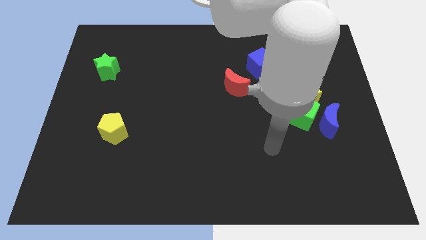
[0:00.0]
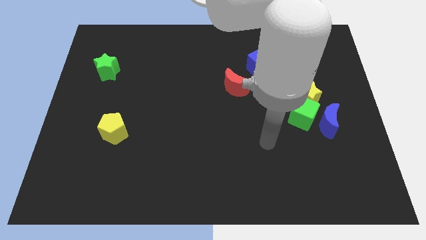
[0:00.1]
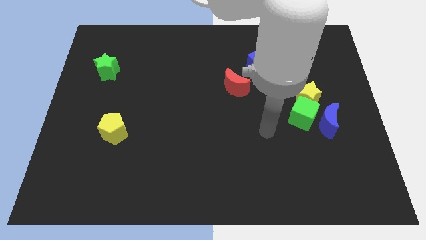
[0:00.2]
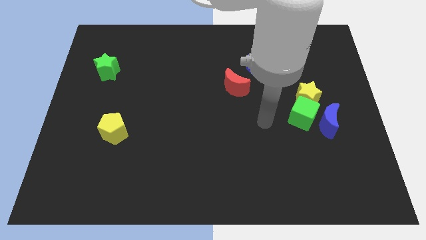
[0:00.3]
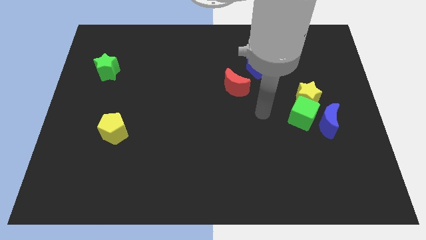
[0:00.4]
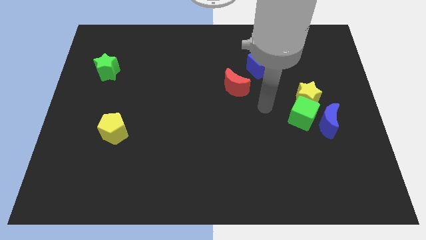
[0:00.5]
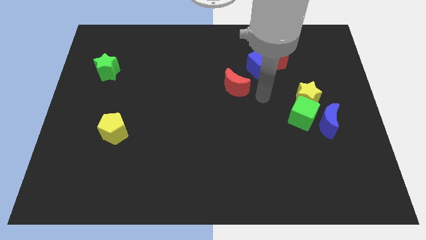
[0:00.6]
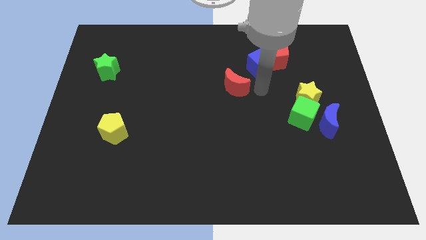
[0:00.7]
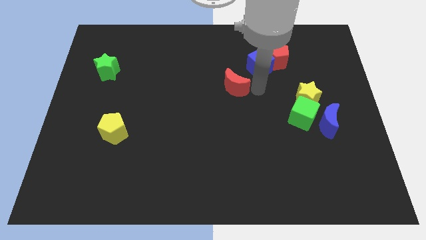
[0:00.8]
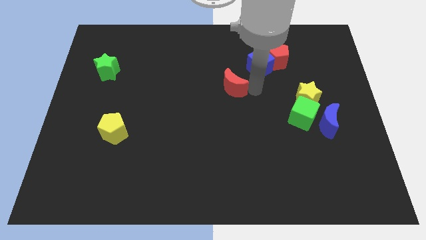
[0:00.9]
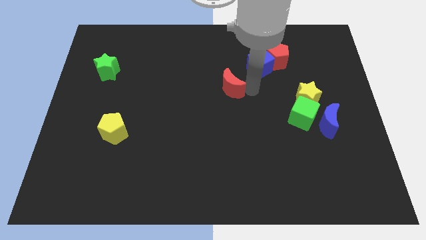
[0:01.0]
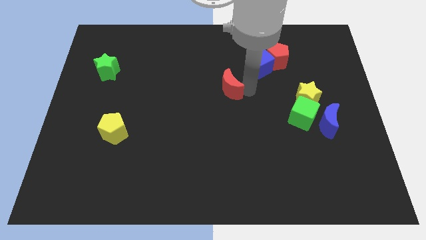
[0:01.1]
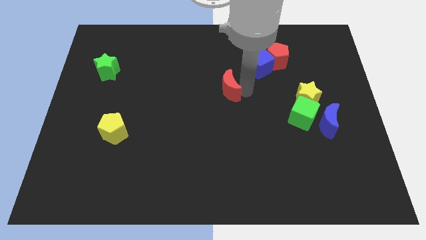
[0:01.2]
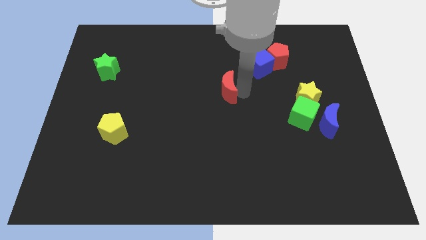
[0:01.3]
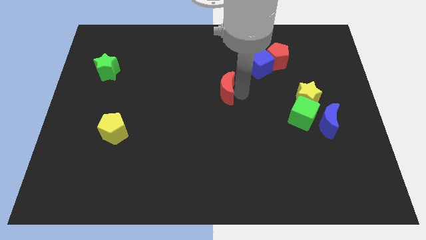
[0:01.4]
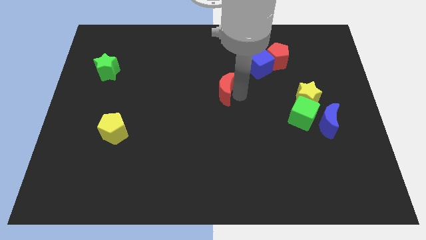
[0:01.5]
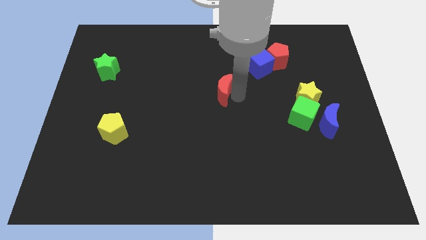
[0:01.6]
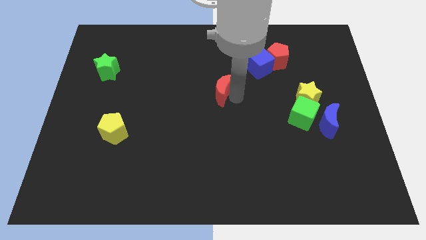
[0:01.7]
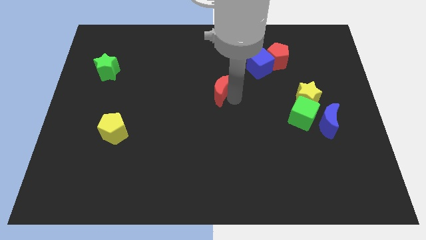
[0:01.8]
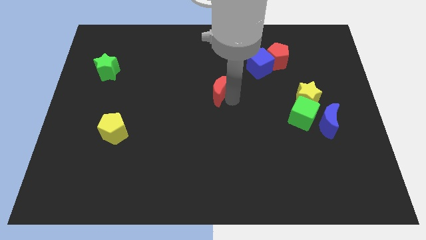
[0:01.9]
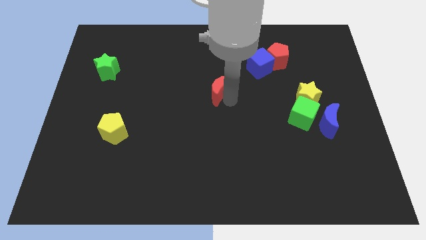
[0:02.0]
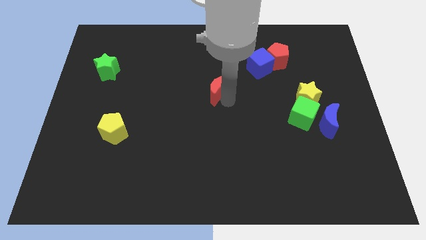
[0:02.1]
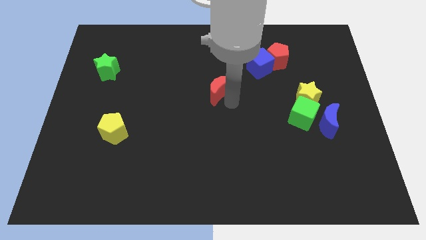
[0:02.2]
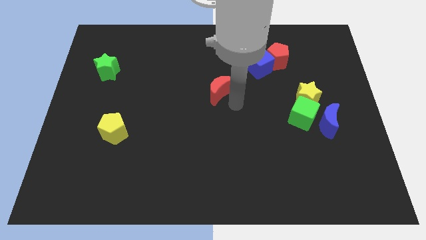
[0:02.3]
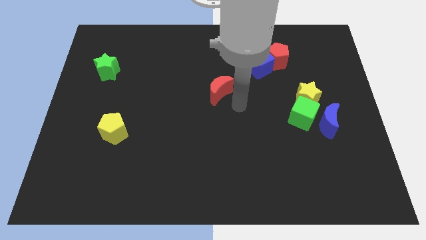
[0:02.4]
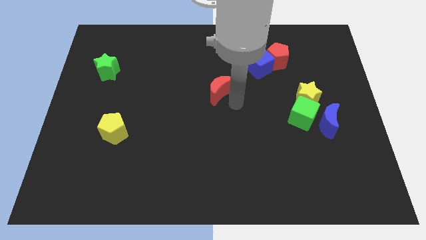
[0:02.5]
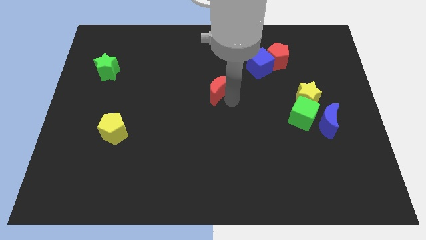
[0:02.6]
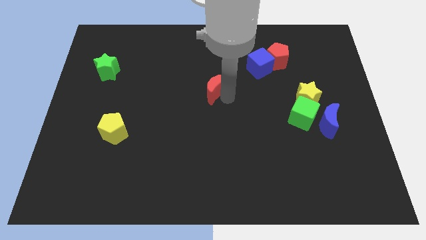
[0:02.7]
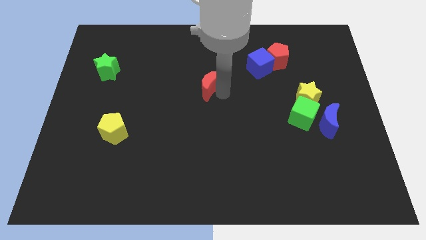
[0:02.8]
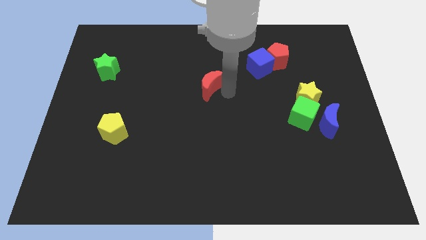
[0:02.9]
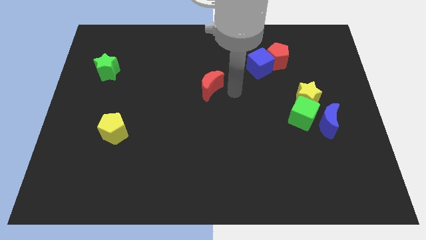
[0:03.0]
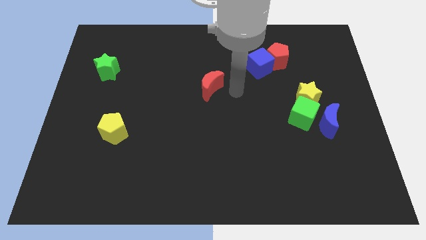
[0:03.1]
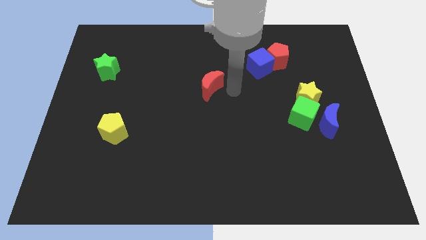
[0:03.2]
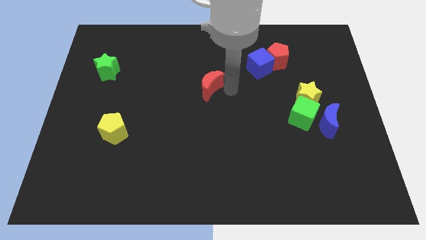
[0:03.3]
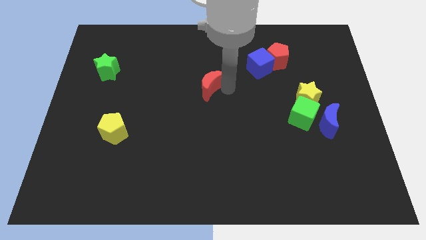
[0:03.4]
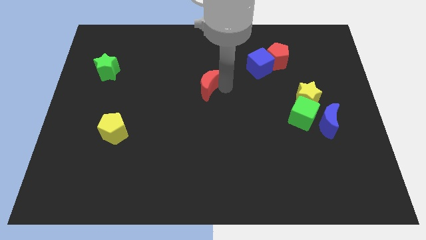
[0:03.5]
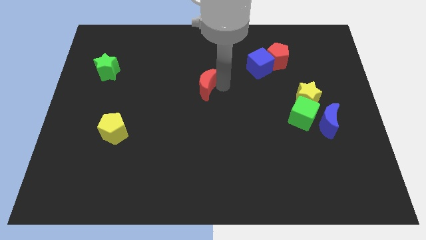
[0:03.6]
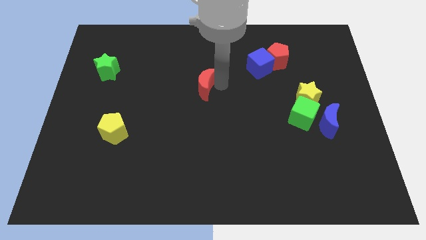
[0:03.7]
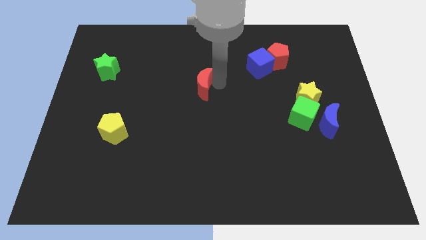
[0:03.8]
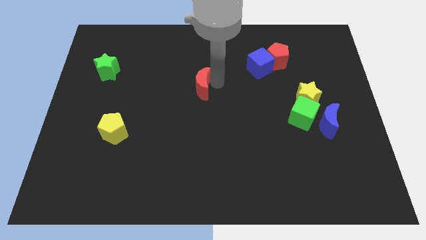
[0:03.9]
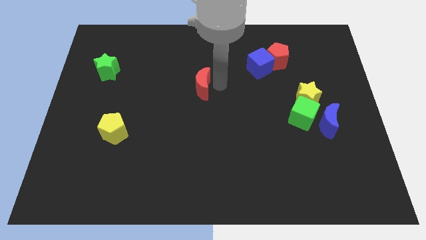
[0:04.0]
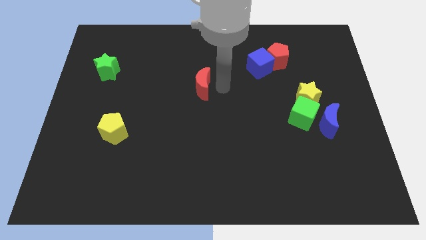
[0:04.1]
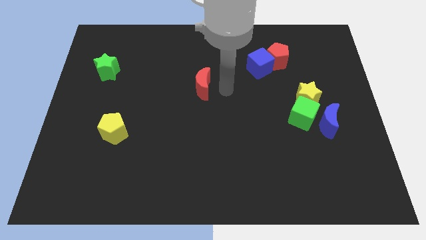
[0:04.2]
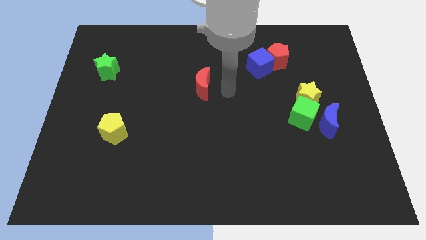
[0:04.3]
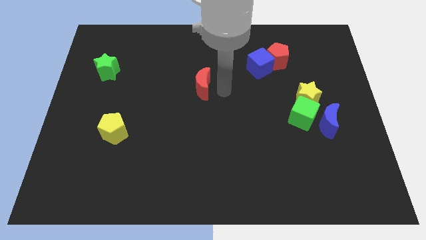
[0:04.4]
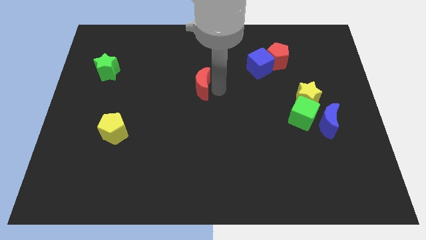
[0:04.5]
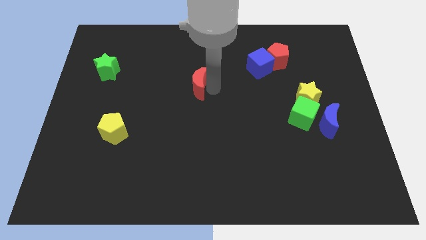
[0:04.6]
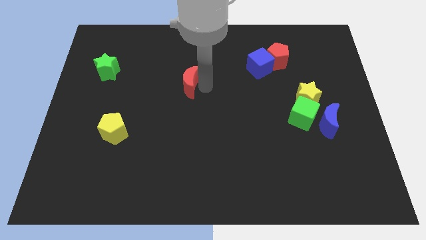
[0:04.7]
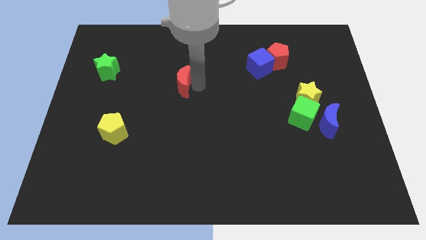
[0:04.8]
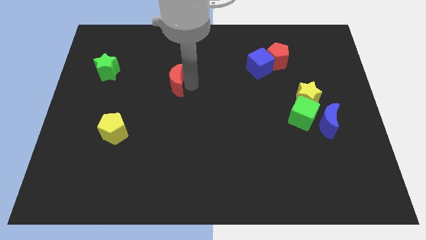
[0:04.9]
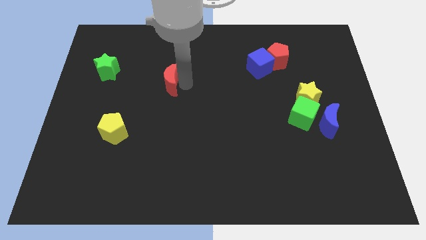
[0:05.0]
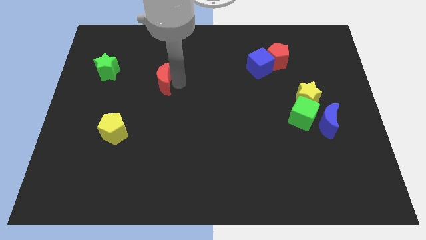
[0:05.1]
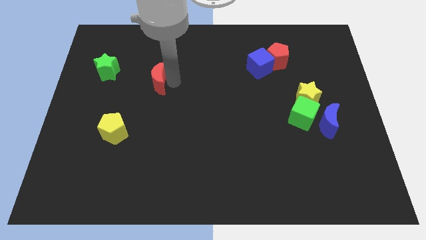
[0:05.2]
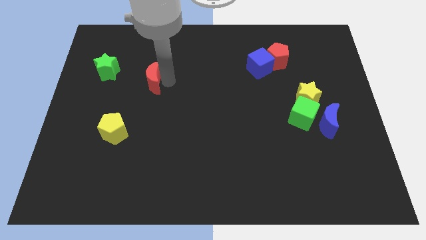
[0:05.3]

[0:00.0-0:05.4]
move the red moon left

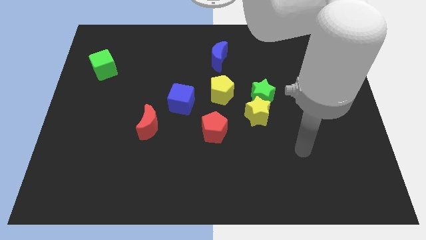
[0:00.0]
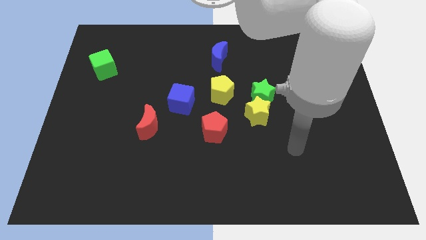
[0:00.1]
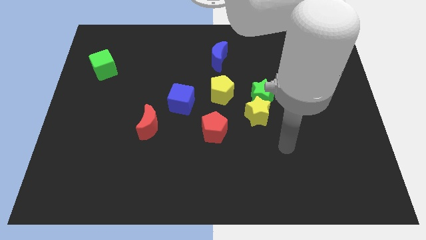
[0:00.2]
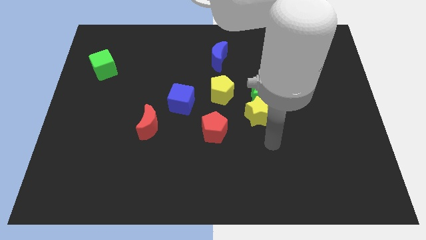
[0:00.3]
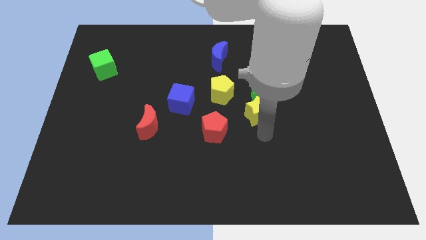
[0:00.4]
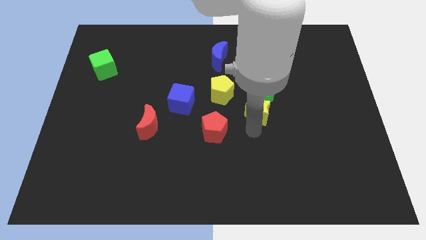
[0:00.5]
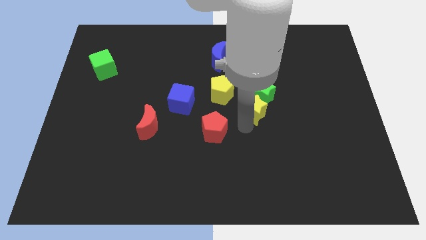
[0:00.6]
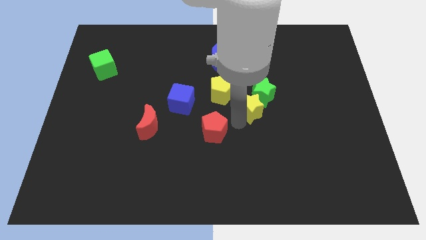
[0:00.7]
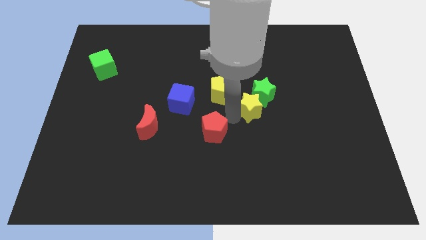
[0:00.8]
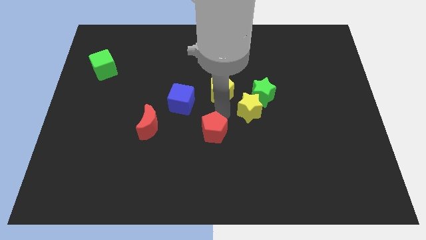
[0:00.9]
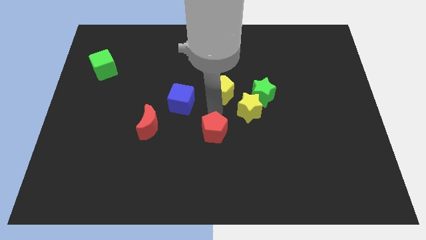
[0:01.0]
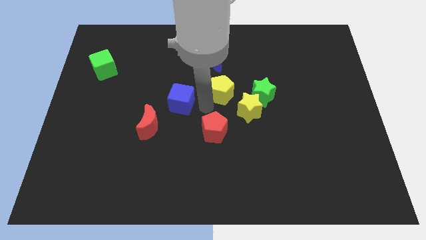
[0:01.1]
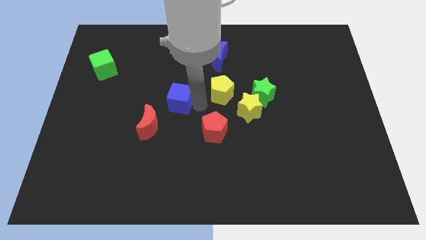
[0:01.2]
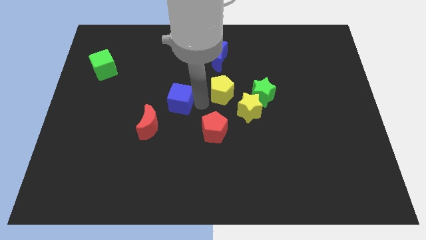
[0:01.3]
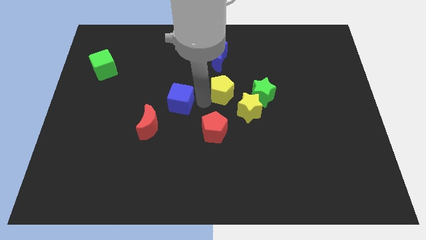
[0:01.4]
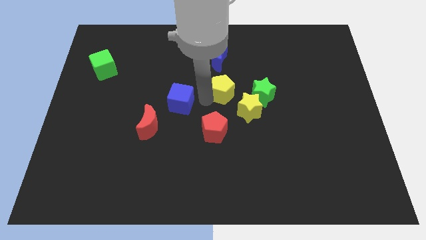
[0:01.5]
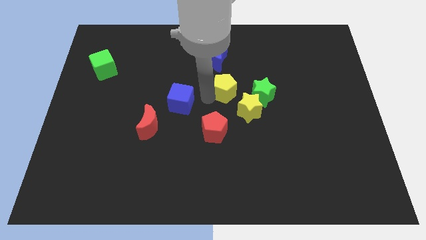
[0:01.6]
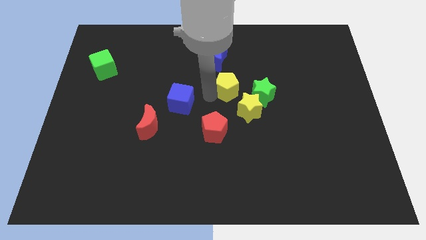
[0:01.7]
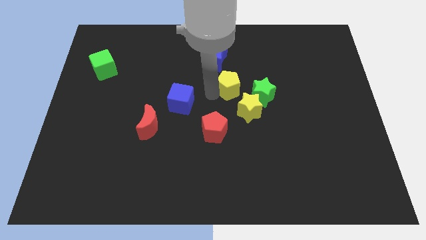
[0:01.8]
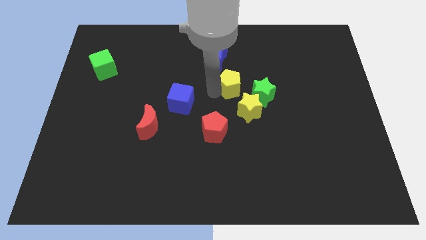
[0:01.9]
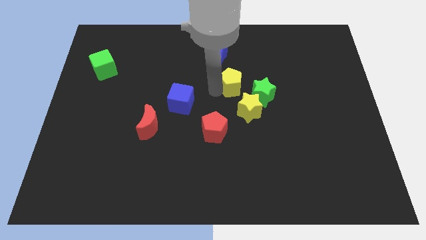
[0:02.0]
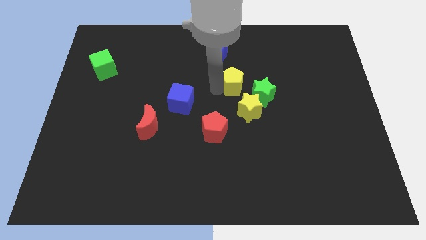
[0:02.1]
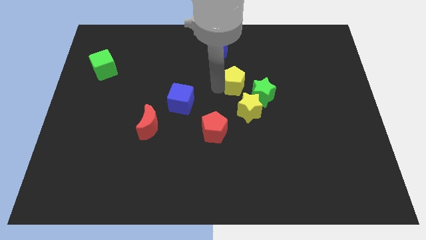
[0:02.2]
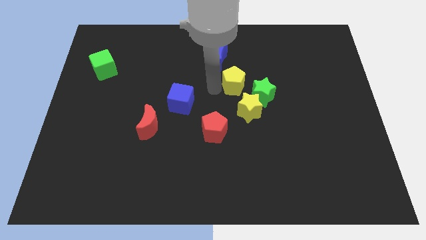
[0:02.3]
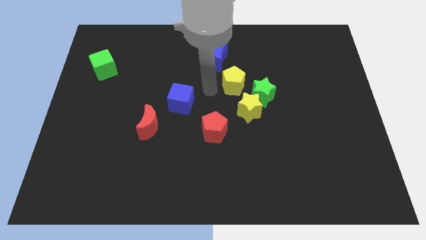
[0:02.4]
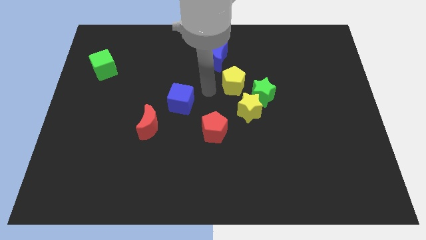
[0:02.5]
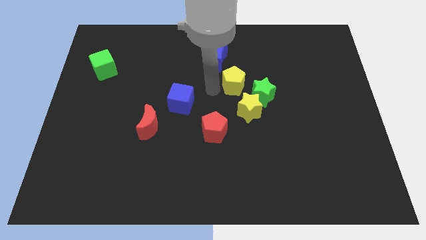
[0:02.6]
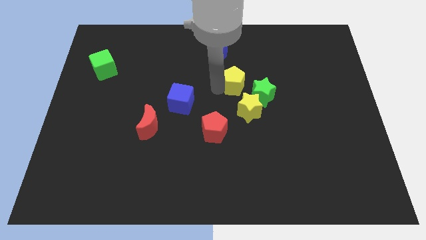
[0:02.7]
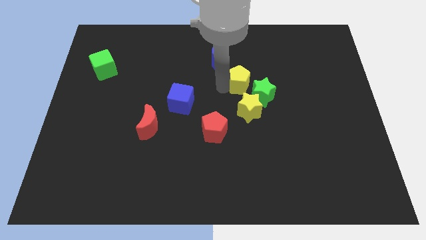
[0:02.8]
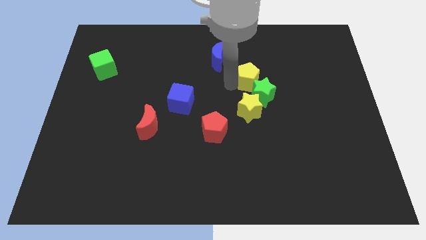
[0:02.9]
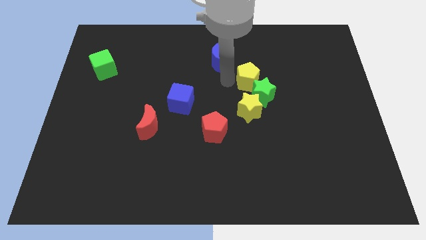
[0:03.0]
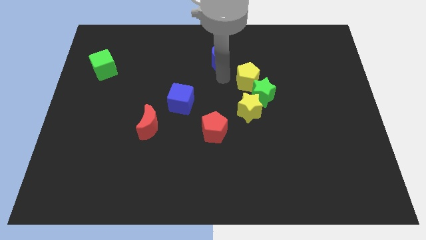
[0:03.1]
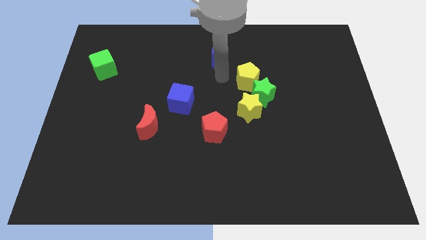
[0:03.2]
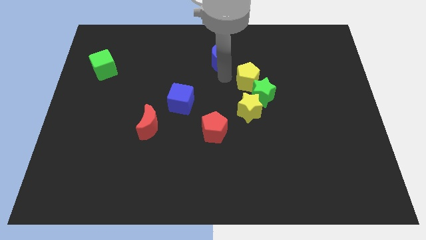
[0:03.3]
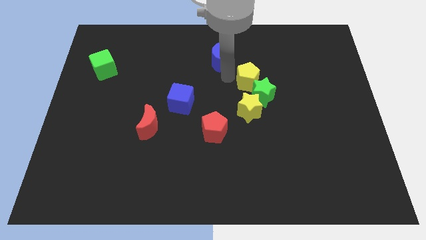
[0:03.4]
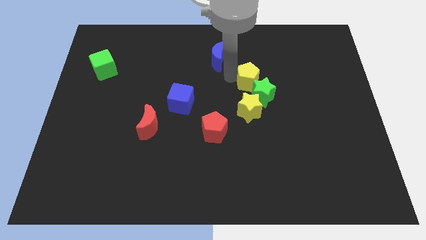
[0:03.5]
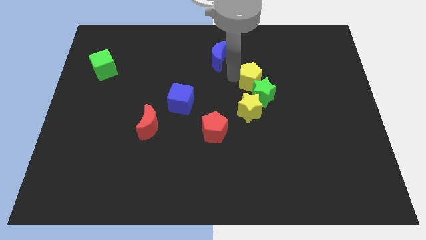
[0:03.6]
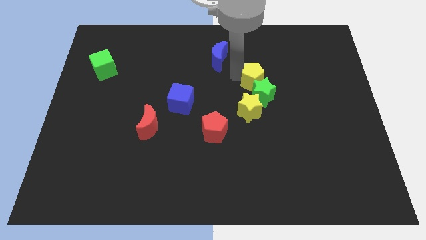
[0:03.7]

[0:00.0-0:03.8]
move the yellow pentagon slightly right
